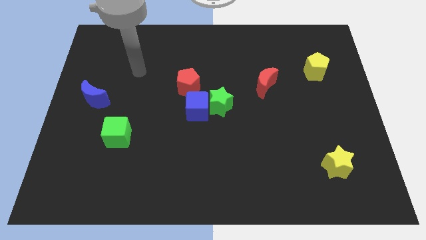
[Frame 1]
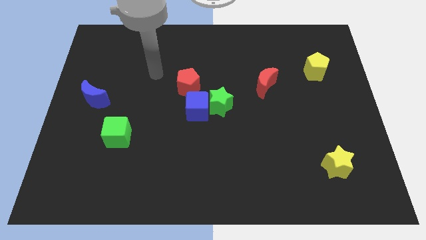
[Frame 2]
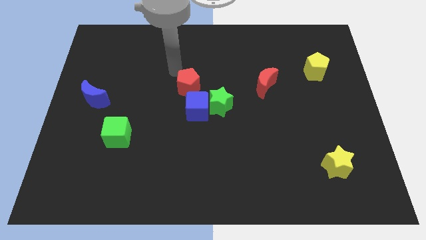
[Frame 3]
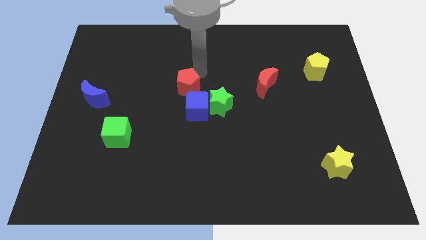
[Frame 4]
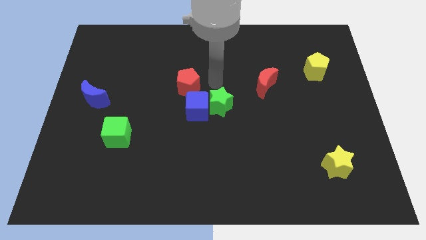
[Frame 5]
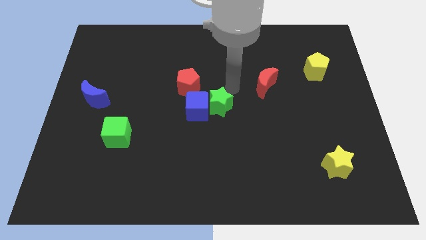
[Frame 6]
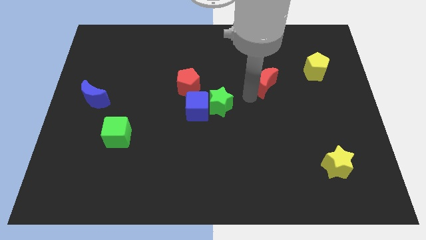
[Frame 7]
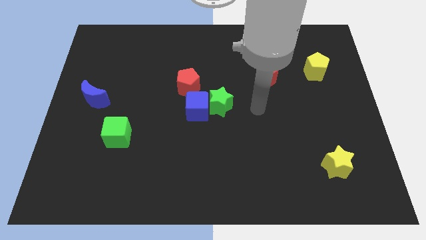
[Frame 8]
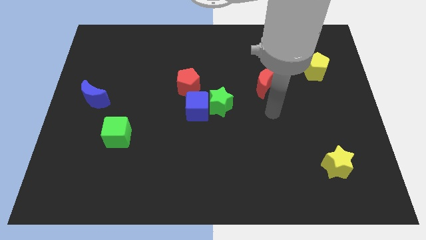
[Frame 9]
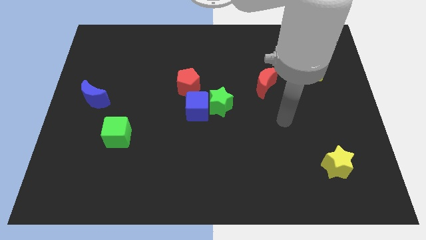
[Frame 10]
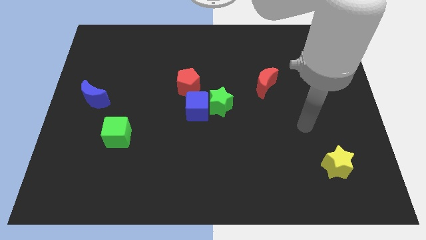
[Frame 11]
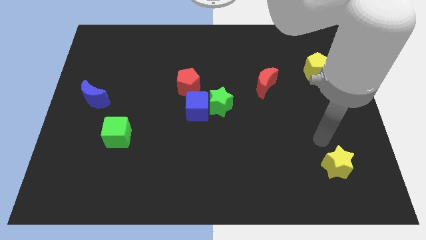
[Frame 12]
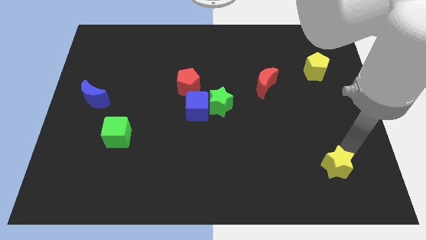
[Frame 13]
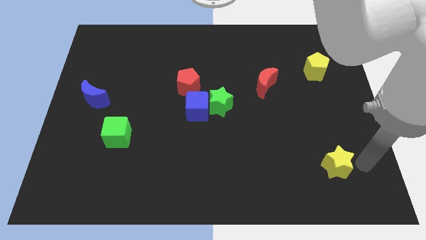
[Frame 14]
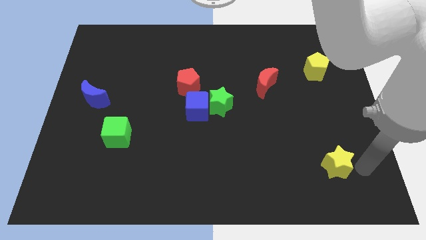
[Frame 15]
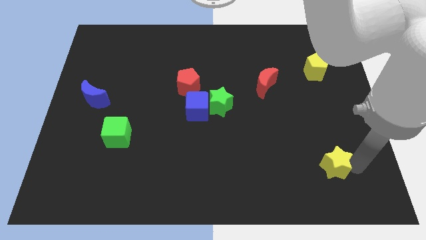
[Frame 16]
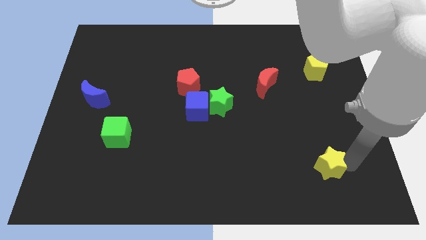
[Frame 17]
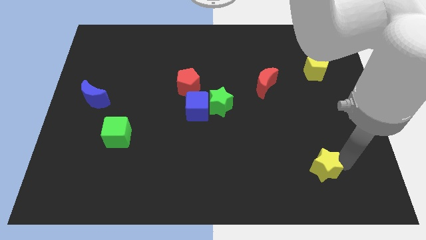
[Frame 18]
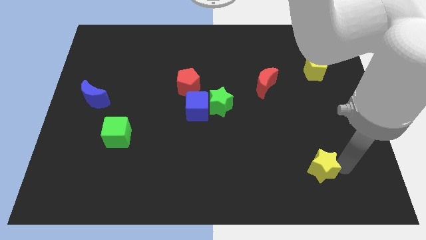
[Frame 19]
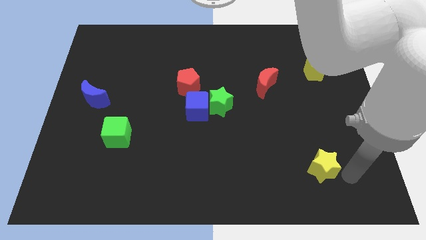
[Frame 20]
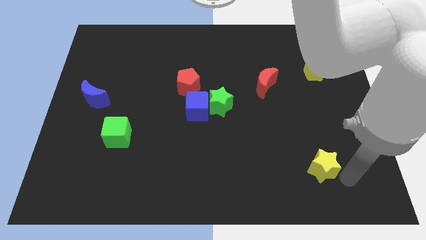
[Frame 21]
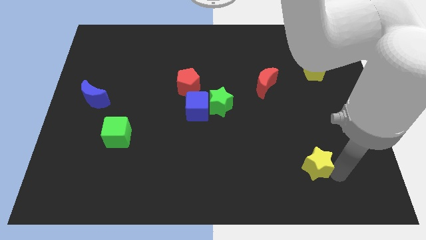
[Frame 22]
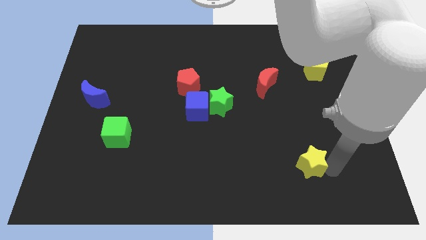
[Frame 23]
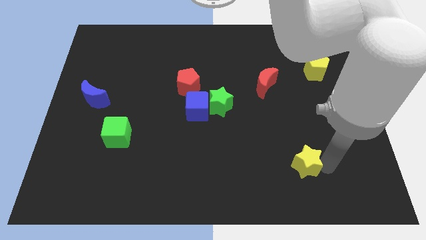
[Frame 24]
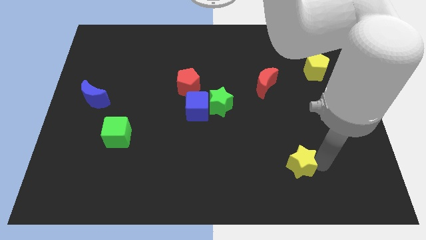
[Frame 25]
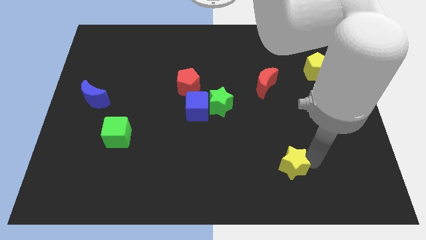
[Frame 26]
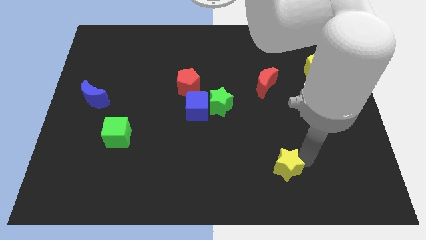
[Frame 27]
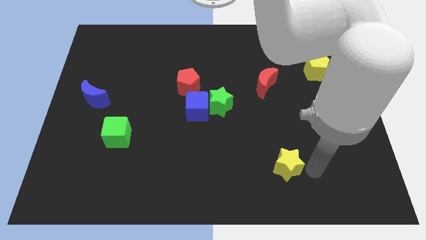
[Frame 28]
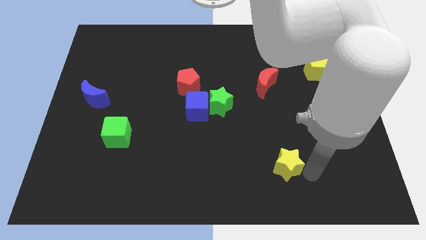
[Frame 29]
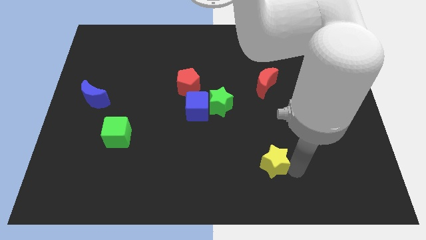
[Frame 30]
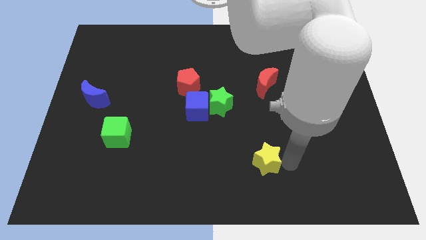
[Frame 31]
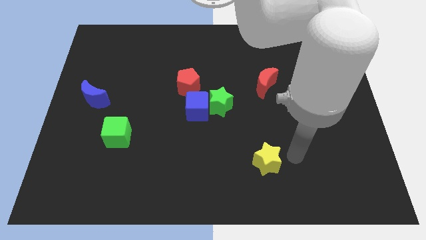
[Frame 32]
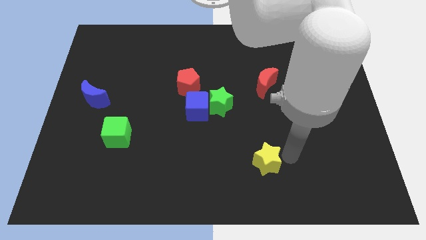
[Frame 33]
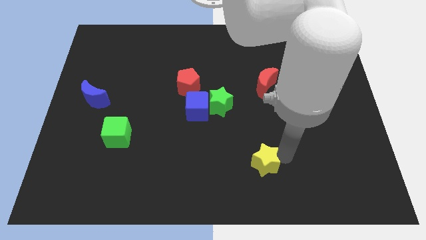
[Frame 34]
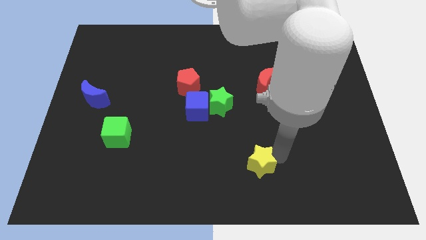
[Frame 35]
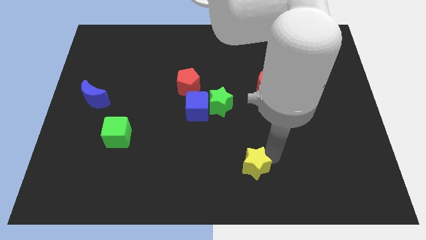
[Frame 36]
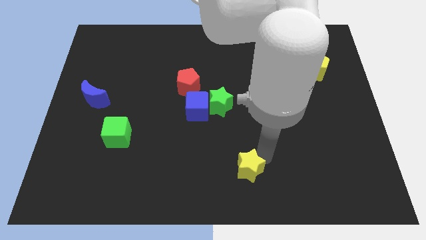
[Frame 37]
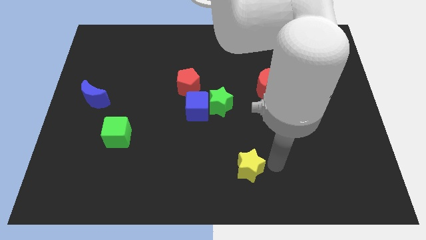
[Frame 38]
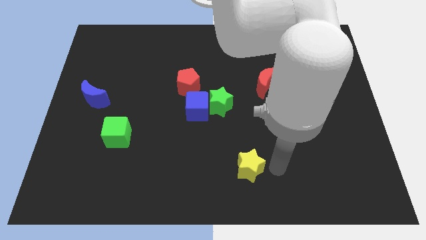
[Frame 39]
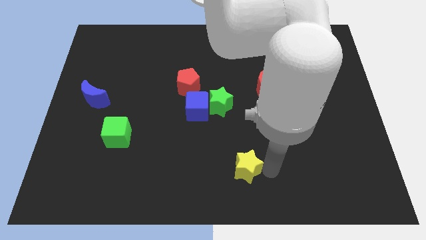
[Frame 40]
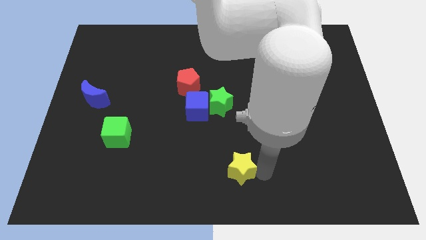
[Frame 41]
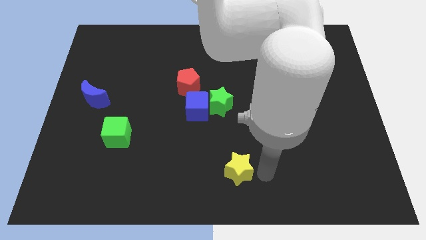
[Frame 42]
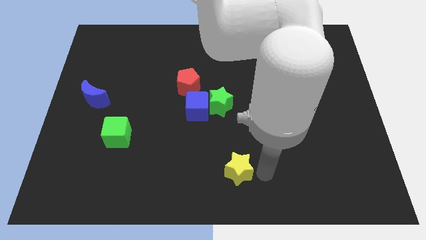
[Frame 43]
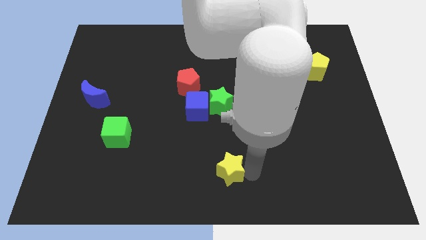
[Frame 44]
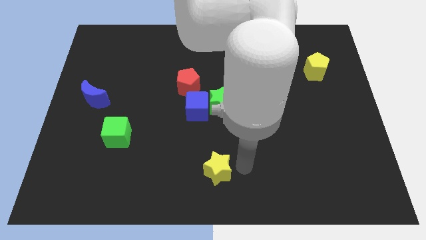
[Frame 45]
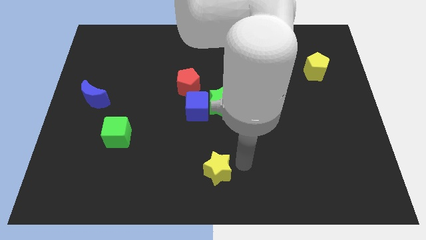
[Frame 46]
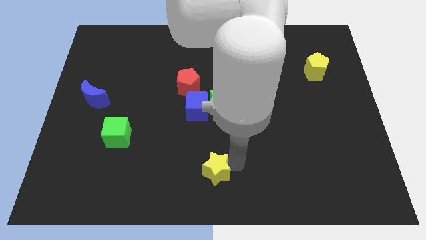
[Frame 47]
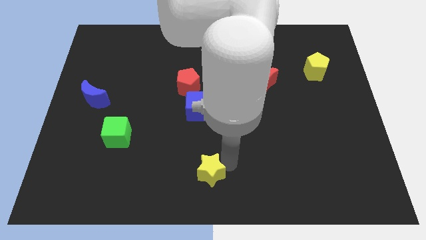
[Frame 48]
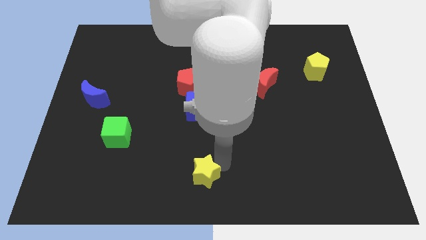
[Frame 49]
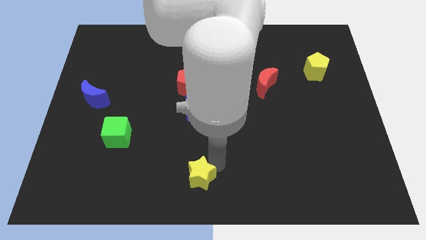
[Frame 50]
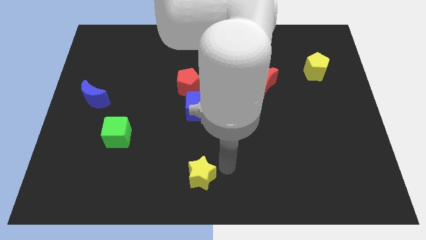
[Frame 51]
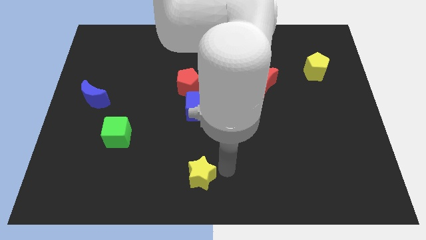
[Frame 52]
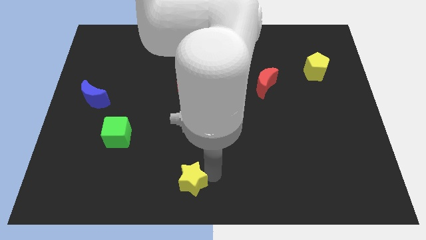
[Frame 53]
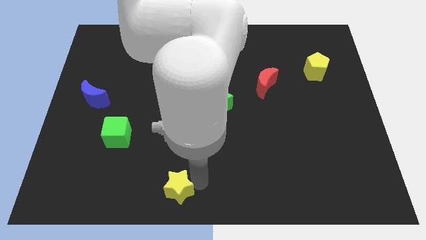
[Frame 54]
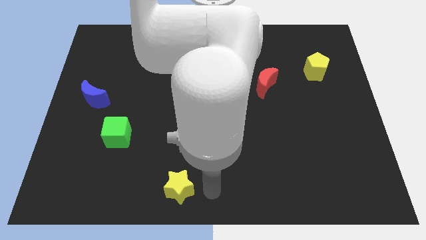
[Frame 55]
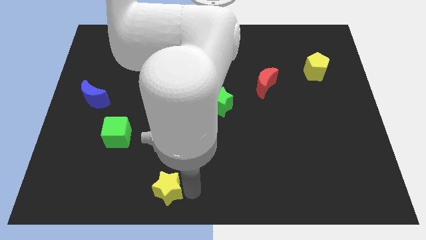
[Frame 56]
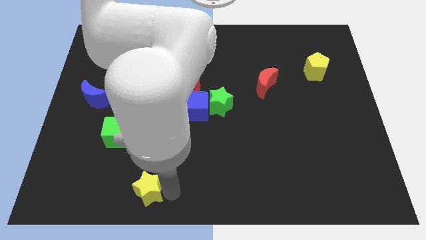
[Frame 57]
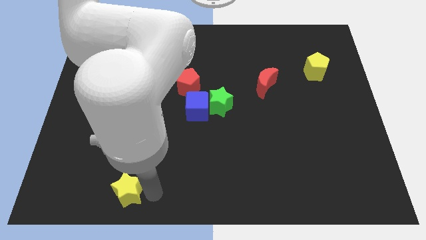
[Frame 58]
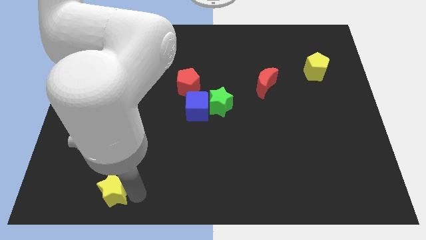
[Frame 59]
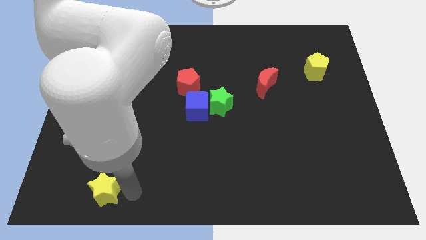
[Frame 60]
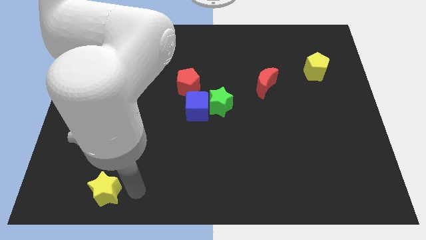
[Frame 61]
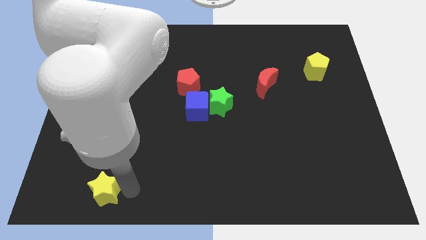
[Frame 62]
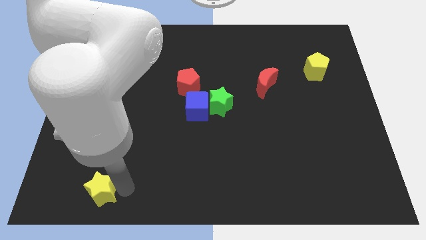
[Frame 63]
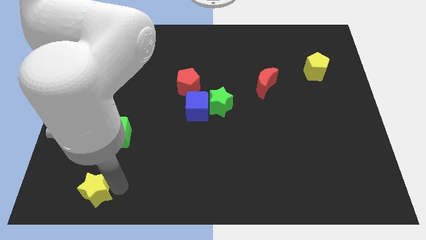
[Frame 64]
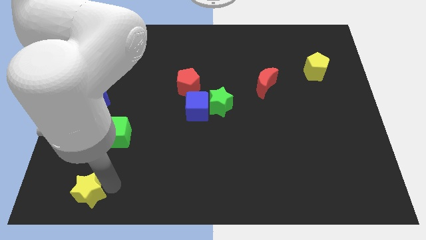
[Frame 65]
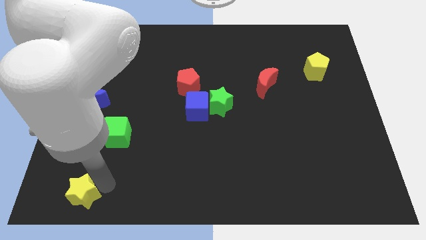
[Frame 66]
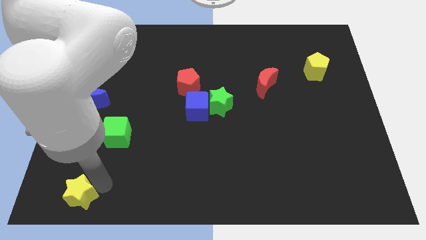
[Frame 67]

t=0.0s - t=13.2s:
slide the yellow star to the bottom left corner
